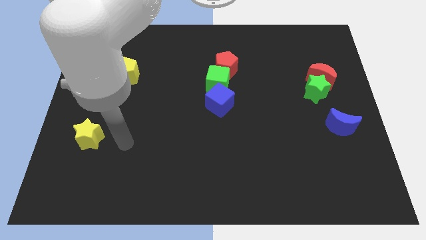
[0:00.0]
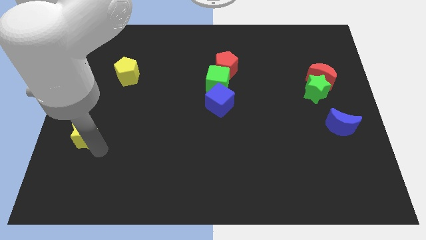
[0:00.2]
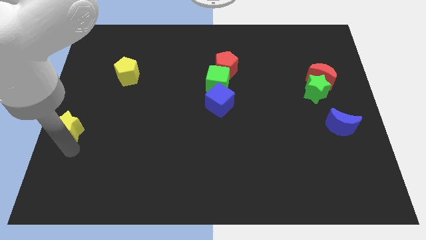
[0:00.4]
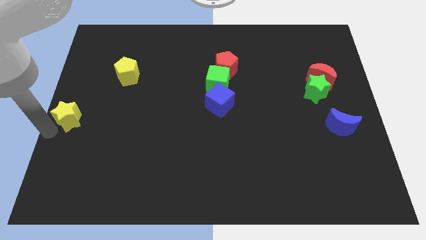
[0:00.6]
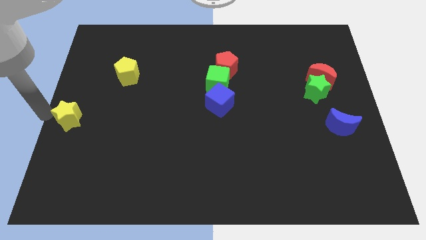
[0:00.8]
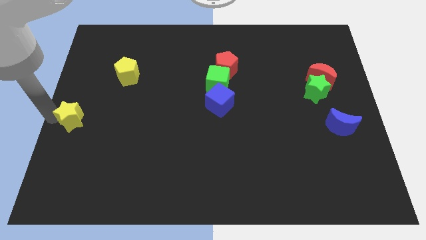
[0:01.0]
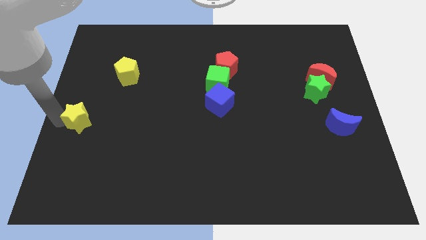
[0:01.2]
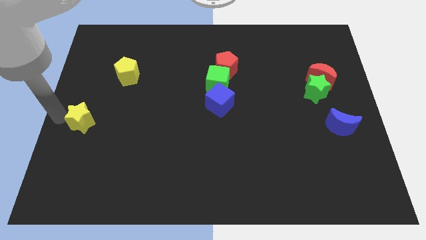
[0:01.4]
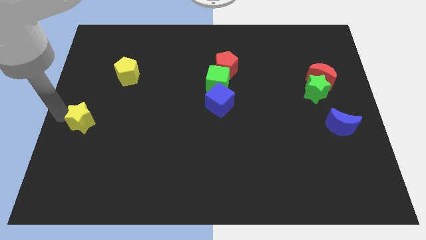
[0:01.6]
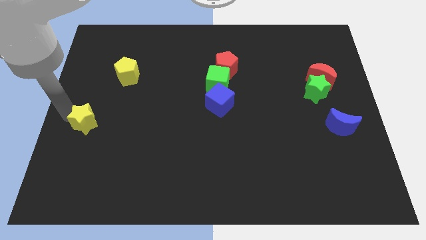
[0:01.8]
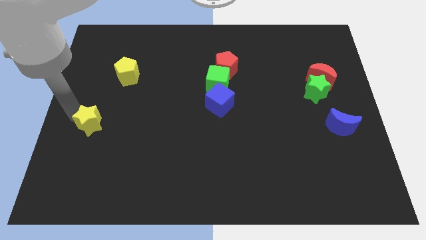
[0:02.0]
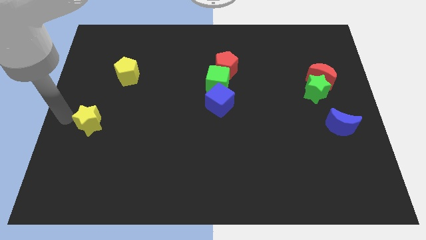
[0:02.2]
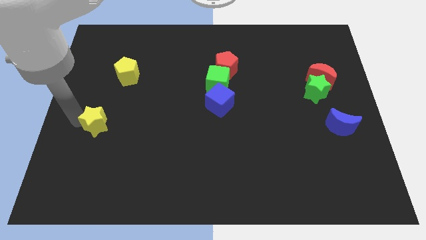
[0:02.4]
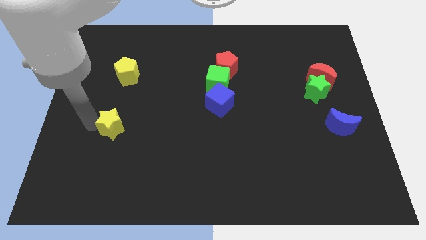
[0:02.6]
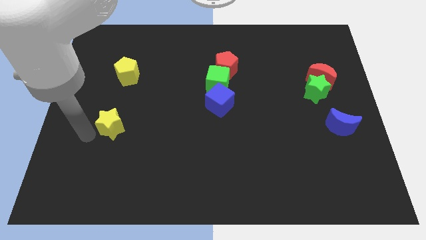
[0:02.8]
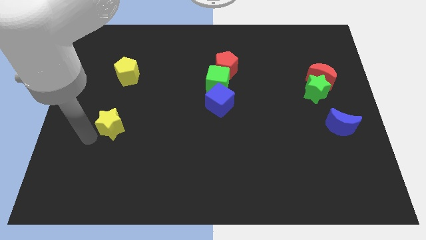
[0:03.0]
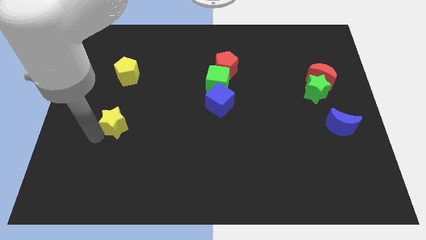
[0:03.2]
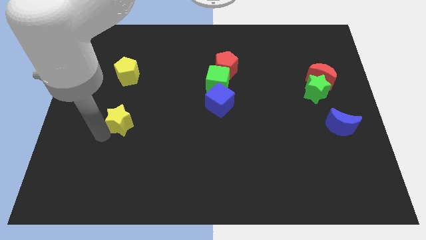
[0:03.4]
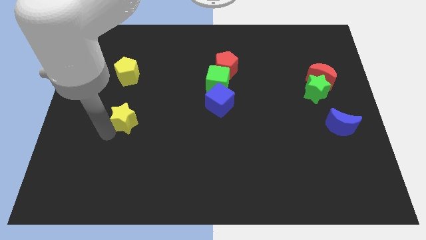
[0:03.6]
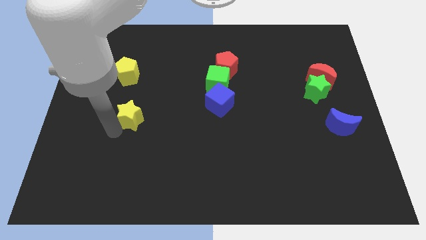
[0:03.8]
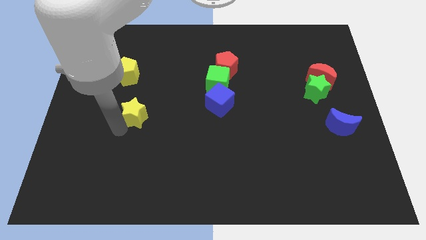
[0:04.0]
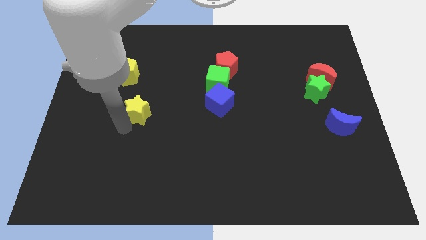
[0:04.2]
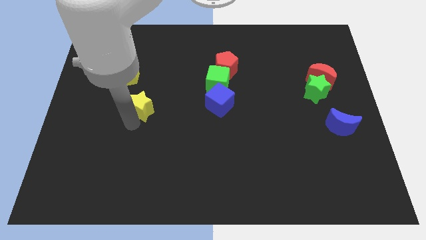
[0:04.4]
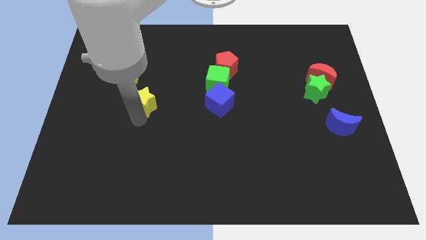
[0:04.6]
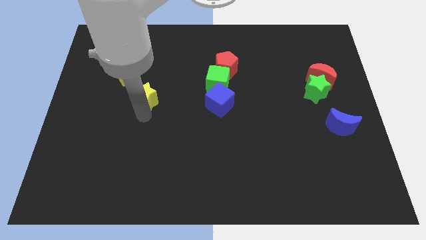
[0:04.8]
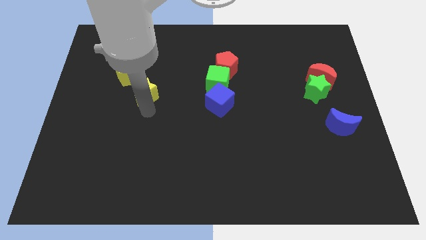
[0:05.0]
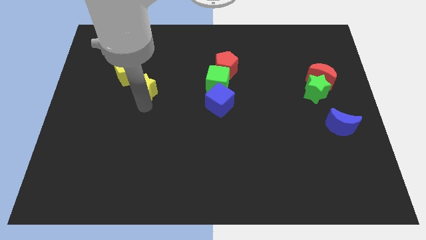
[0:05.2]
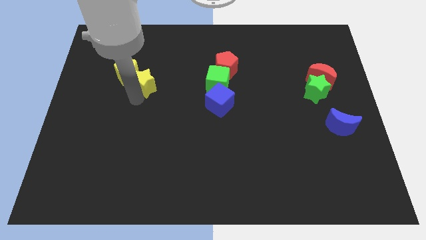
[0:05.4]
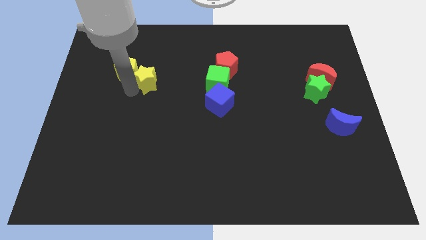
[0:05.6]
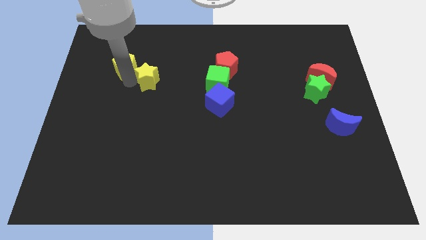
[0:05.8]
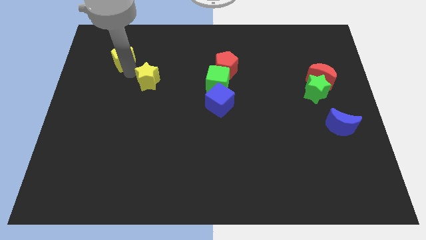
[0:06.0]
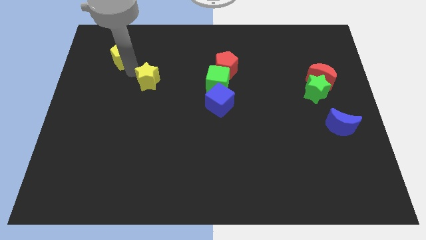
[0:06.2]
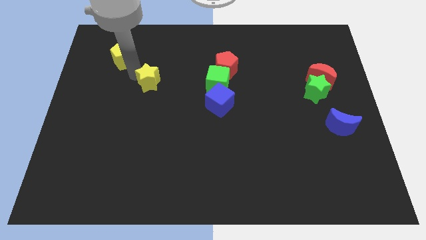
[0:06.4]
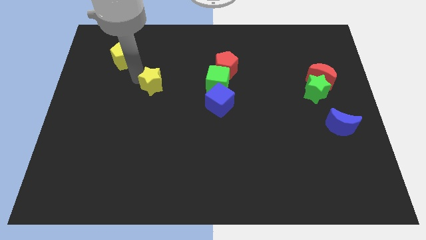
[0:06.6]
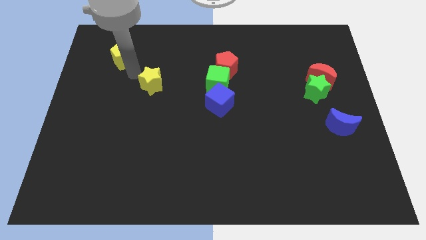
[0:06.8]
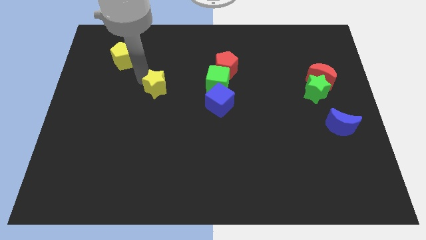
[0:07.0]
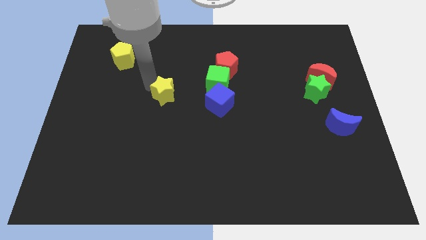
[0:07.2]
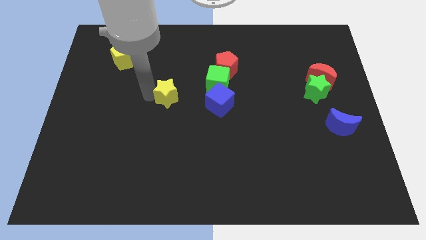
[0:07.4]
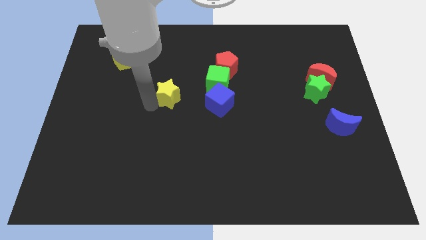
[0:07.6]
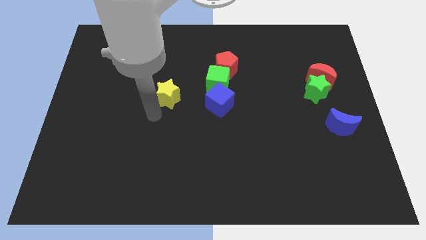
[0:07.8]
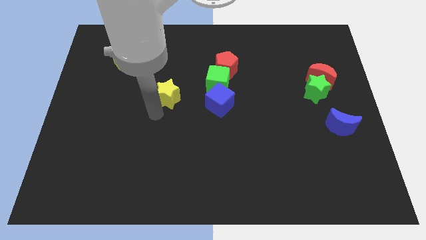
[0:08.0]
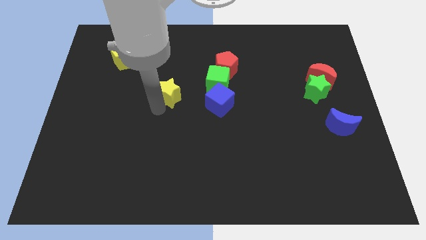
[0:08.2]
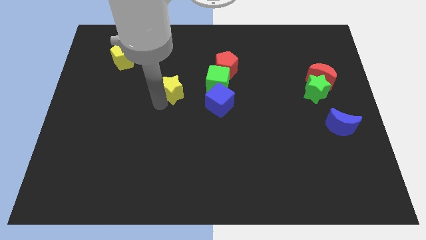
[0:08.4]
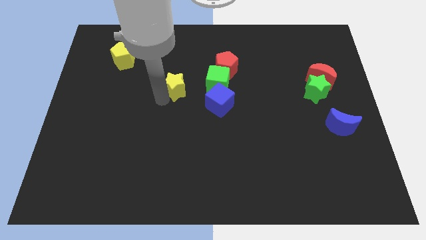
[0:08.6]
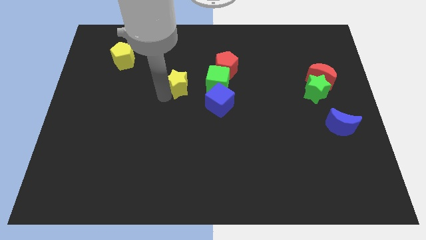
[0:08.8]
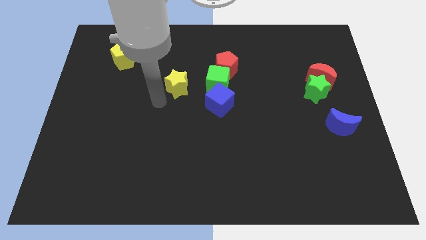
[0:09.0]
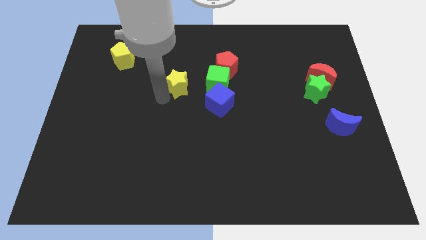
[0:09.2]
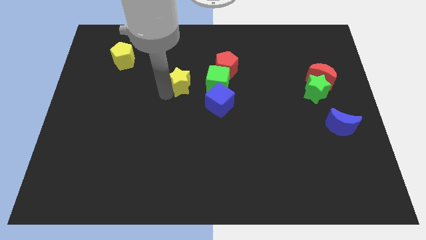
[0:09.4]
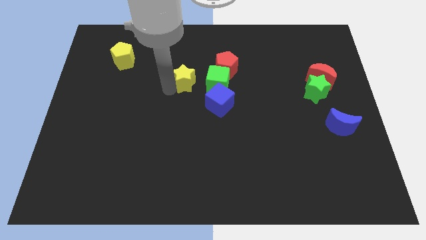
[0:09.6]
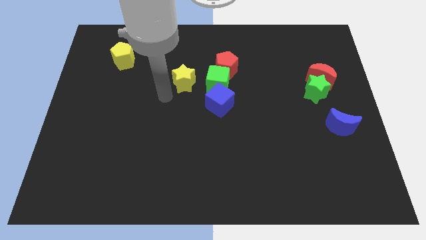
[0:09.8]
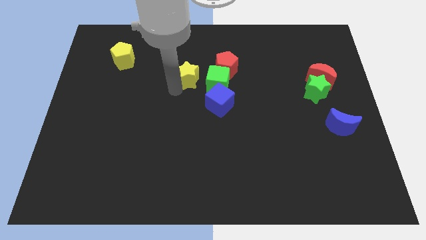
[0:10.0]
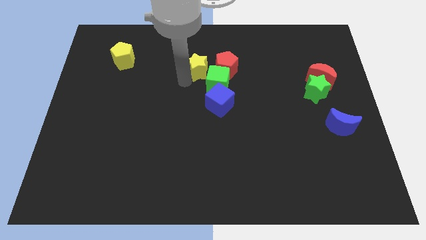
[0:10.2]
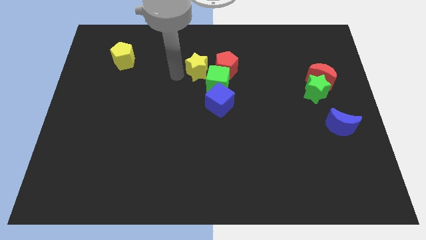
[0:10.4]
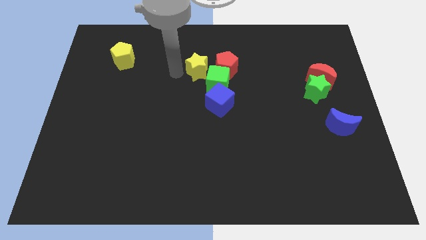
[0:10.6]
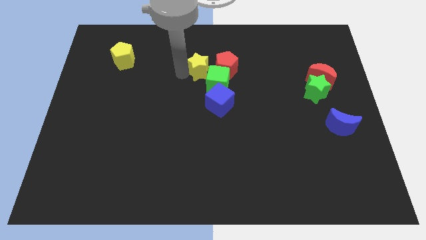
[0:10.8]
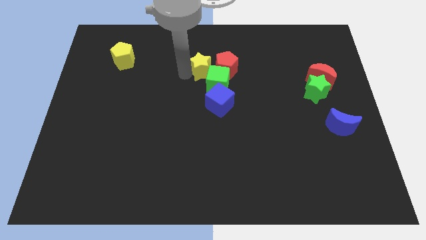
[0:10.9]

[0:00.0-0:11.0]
put the yellow star to the red pentagon

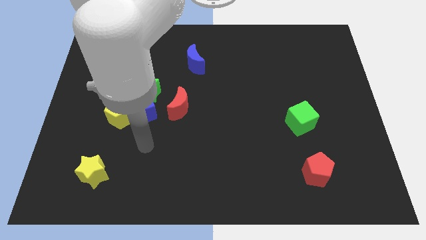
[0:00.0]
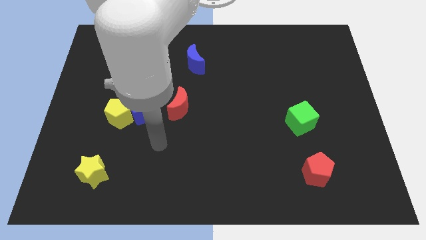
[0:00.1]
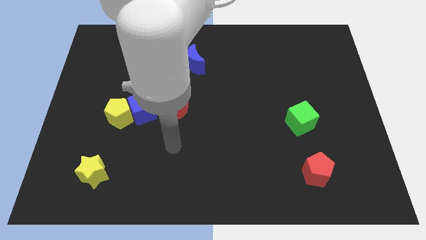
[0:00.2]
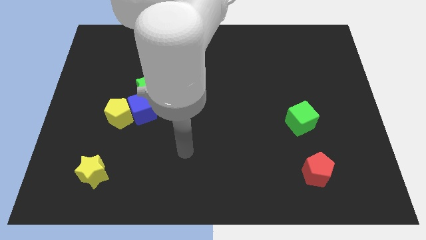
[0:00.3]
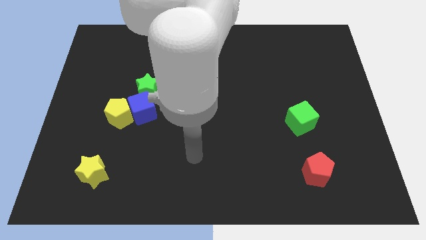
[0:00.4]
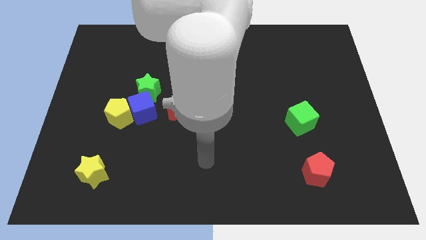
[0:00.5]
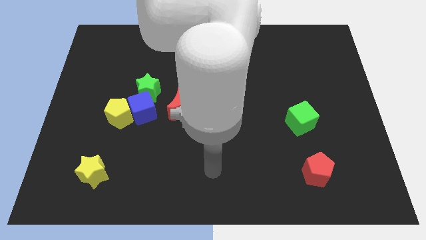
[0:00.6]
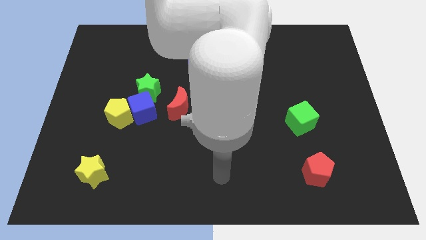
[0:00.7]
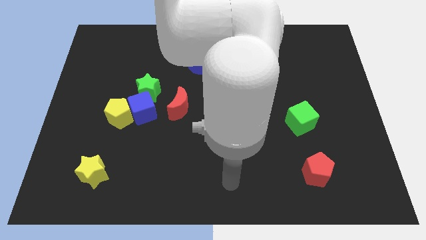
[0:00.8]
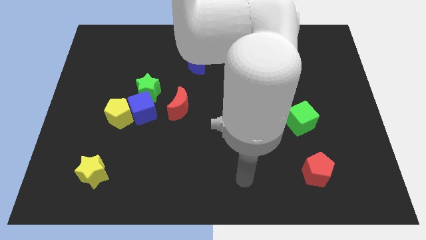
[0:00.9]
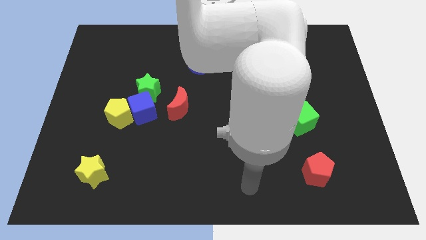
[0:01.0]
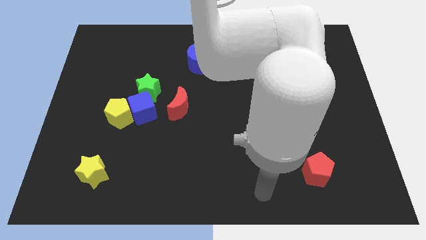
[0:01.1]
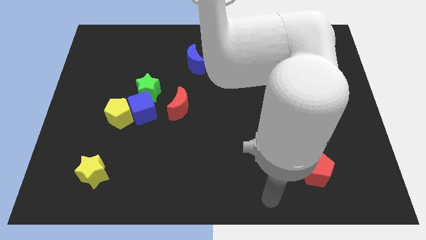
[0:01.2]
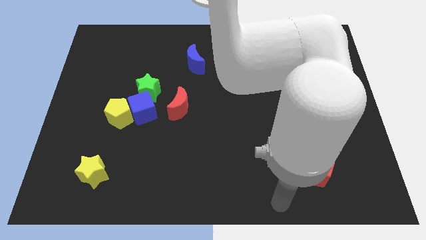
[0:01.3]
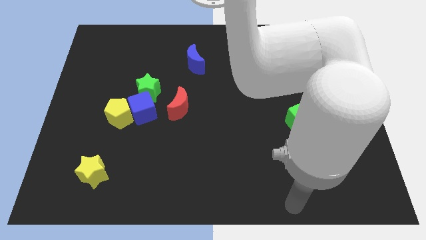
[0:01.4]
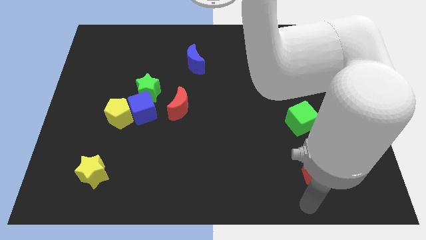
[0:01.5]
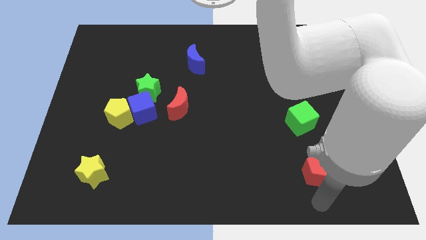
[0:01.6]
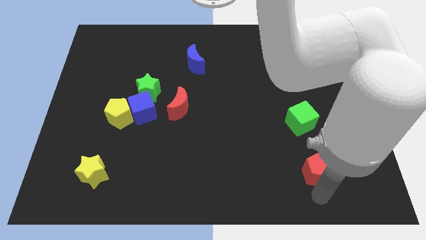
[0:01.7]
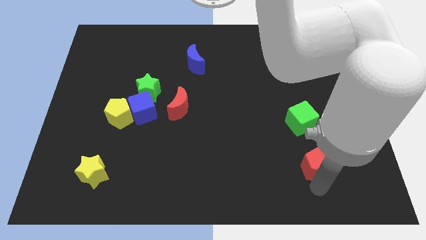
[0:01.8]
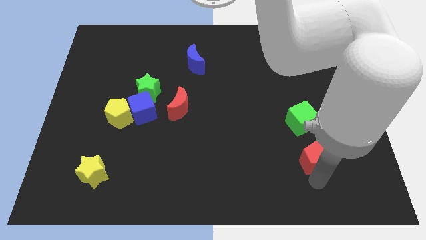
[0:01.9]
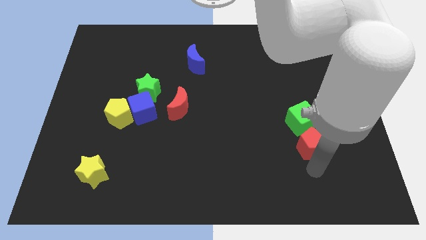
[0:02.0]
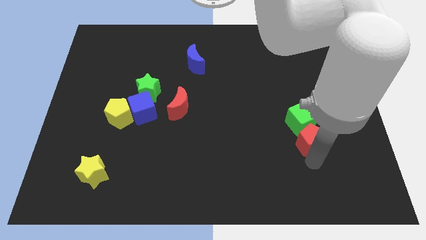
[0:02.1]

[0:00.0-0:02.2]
push the red pentagon towards the green cube
